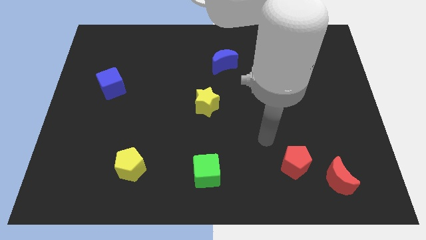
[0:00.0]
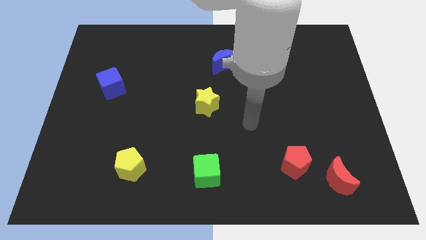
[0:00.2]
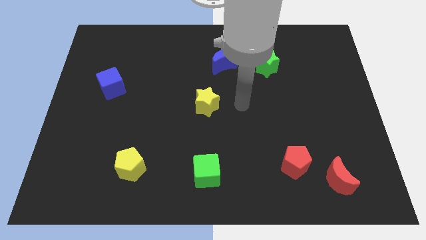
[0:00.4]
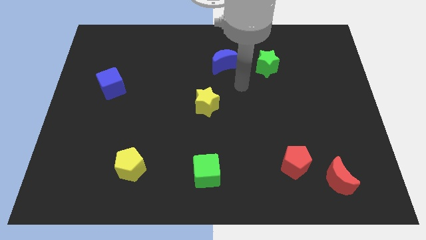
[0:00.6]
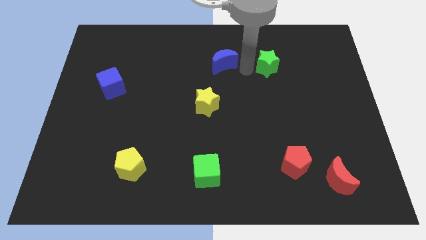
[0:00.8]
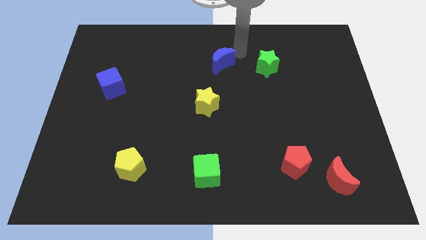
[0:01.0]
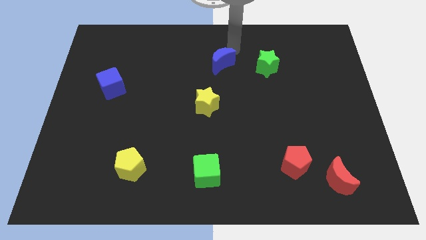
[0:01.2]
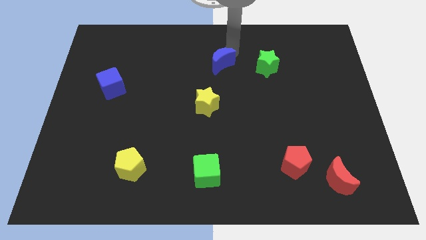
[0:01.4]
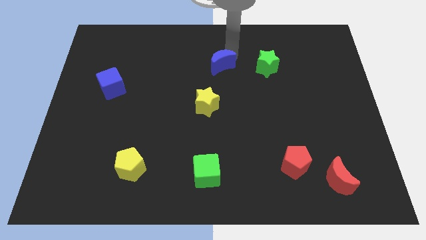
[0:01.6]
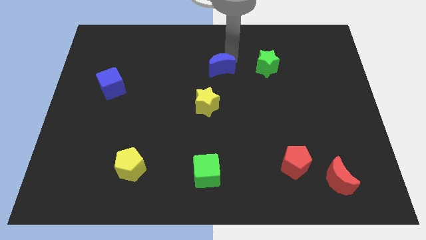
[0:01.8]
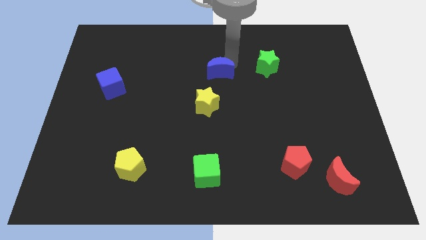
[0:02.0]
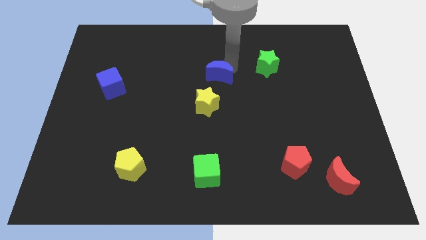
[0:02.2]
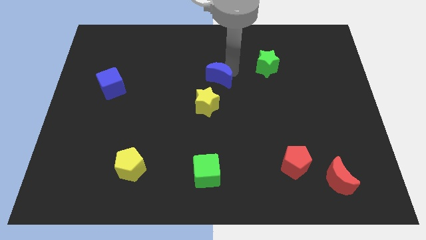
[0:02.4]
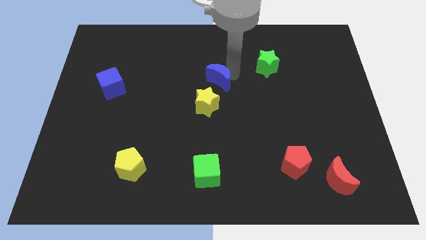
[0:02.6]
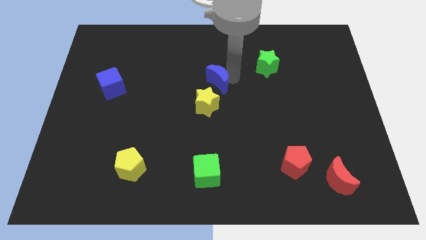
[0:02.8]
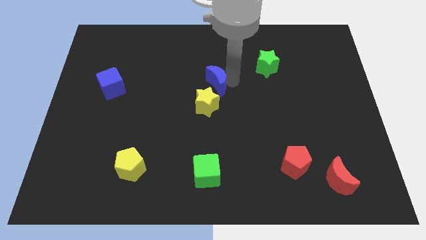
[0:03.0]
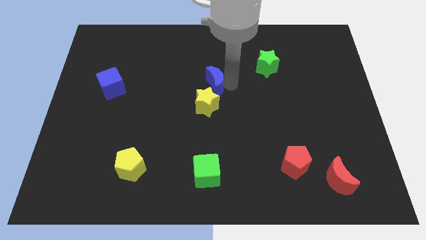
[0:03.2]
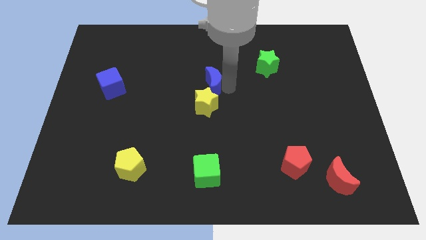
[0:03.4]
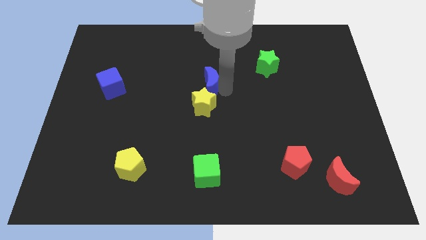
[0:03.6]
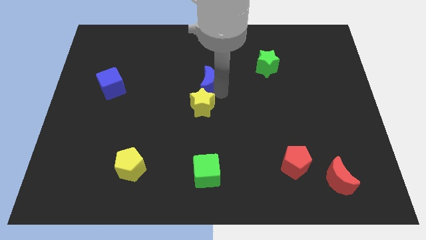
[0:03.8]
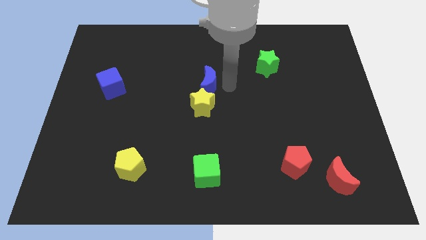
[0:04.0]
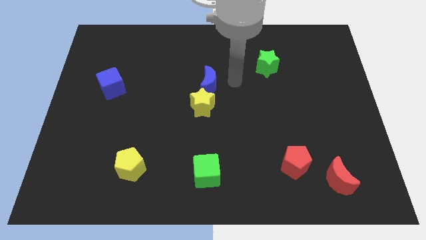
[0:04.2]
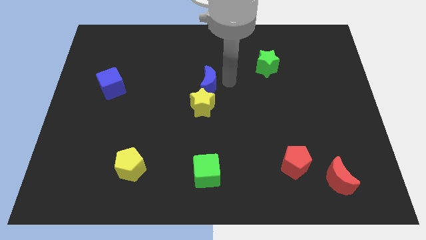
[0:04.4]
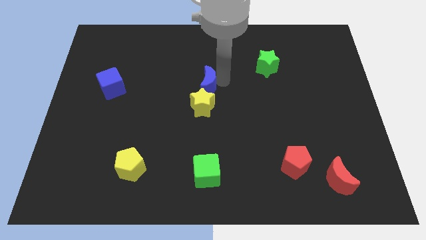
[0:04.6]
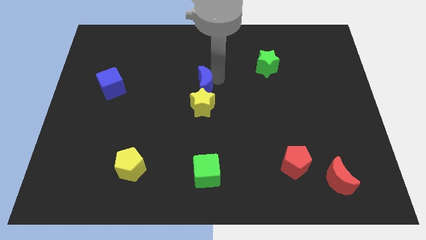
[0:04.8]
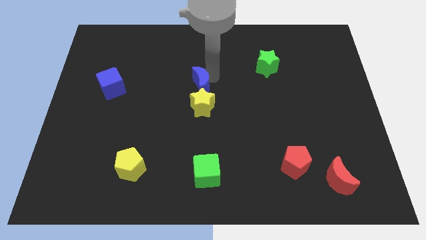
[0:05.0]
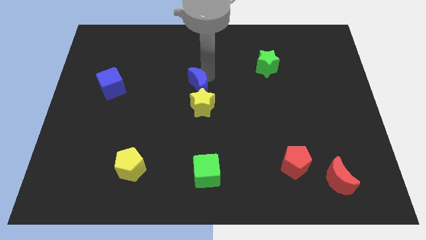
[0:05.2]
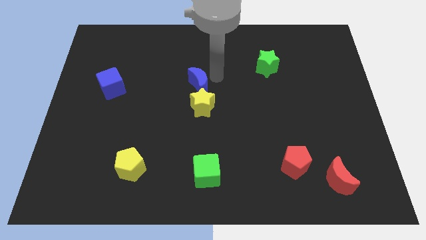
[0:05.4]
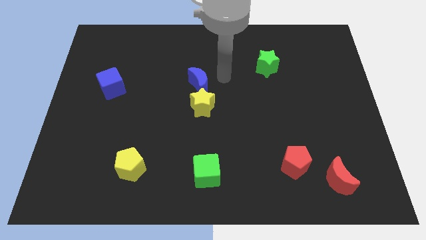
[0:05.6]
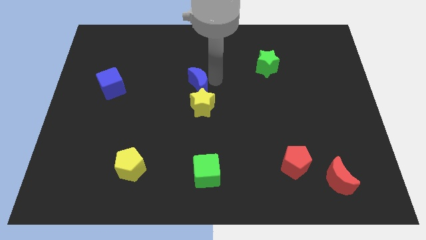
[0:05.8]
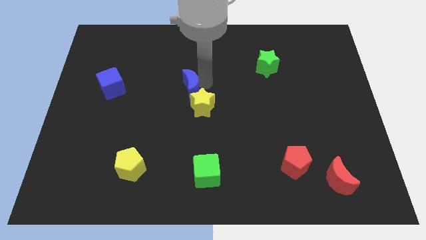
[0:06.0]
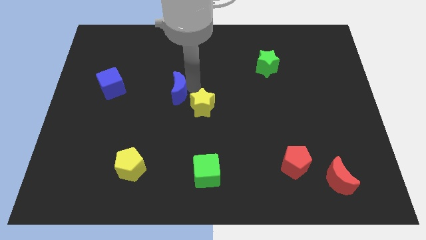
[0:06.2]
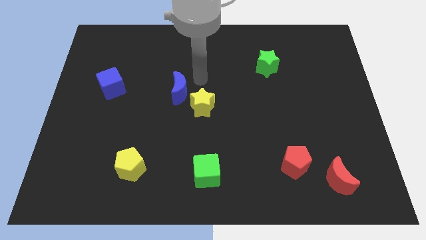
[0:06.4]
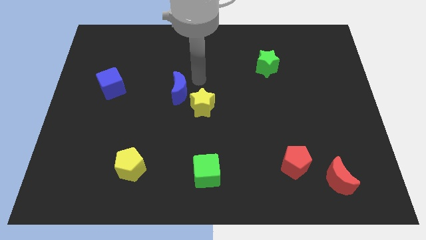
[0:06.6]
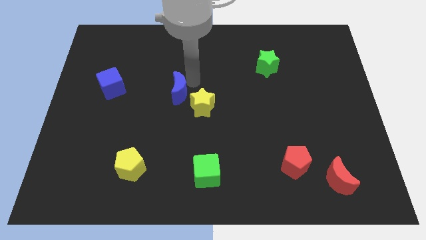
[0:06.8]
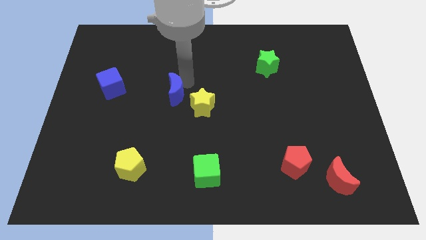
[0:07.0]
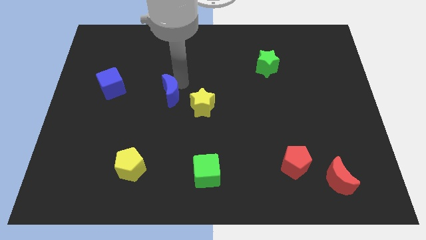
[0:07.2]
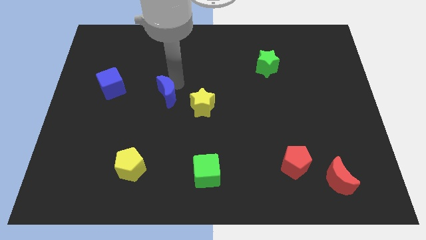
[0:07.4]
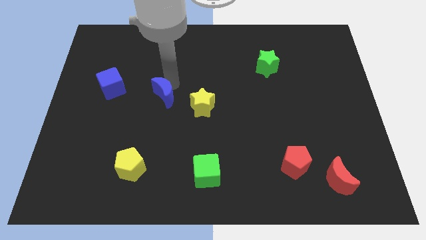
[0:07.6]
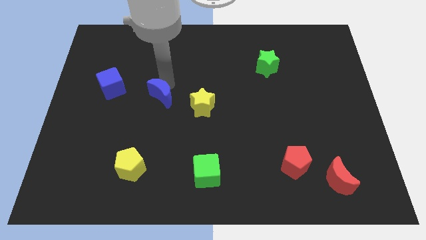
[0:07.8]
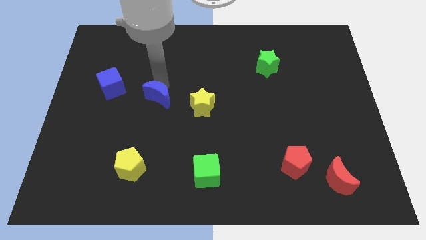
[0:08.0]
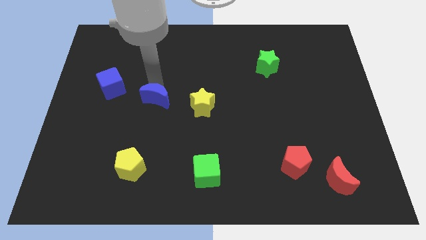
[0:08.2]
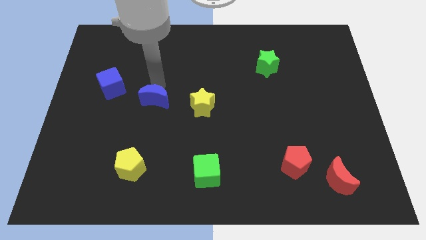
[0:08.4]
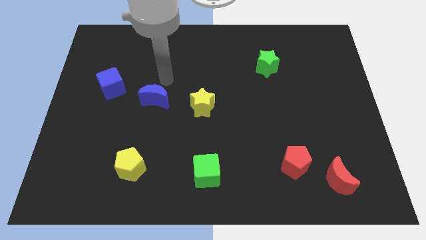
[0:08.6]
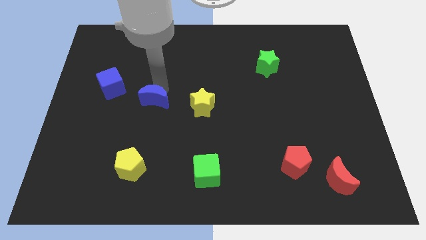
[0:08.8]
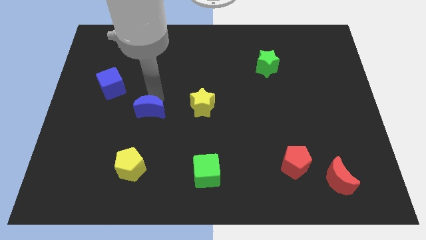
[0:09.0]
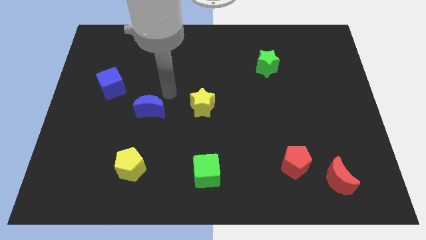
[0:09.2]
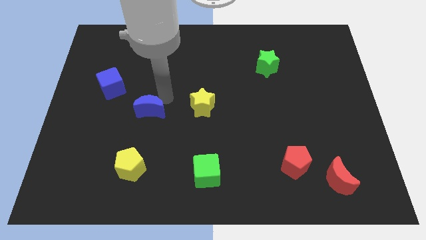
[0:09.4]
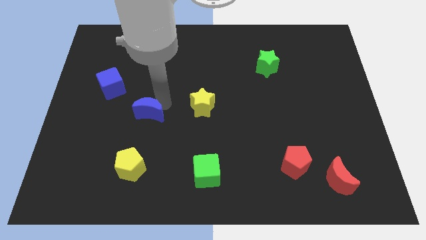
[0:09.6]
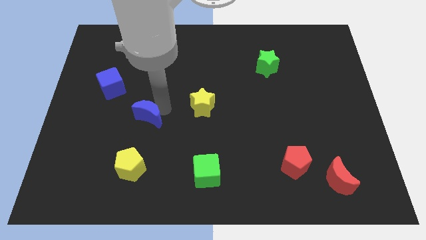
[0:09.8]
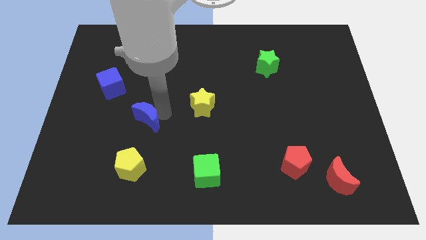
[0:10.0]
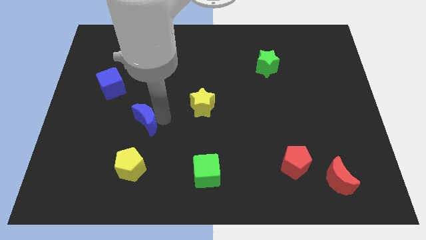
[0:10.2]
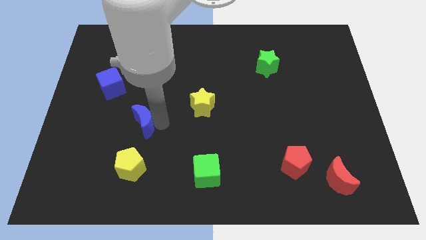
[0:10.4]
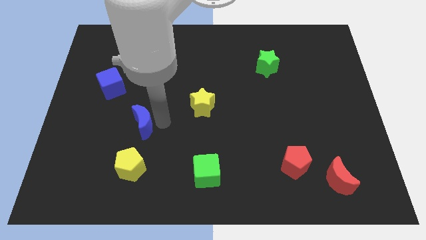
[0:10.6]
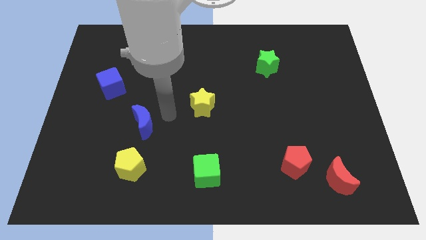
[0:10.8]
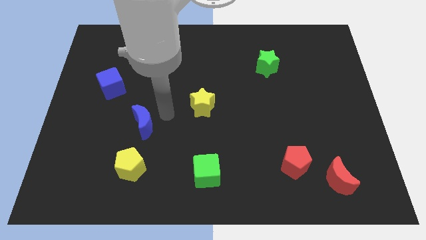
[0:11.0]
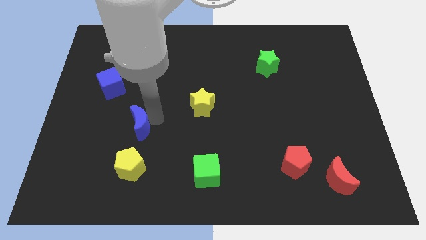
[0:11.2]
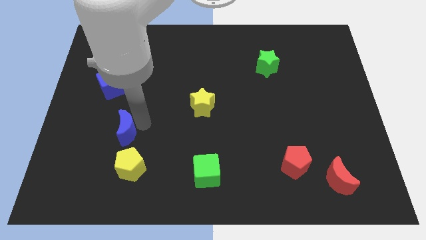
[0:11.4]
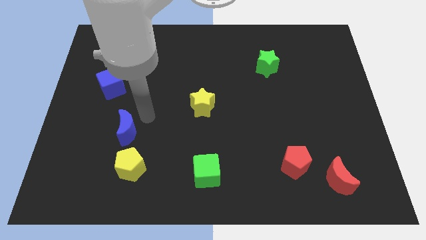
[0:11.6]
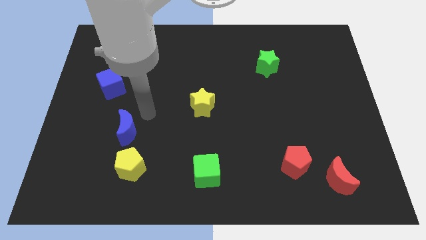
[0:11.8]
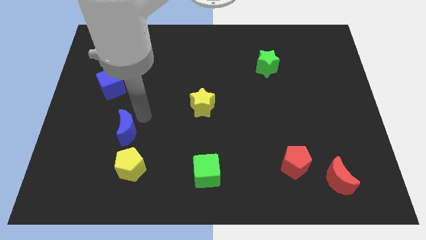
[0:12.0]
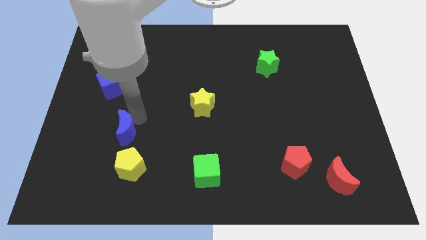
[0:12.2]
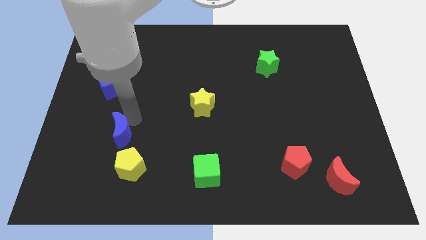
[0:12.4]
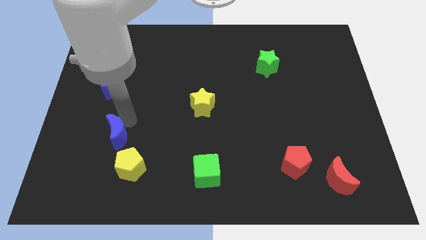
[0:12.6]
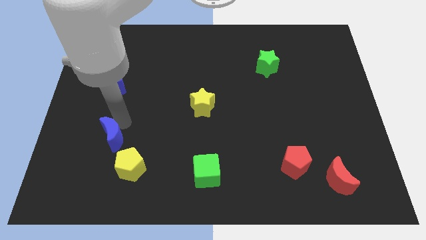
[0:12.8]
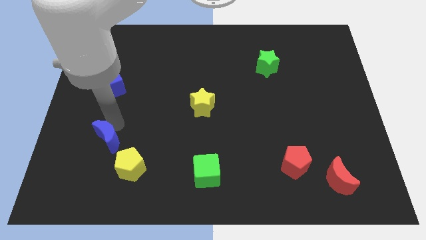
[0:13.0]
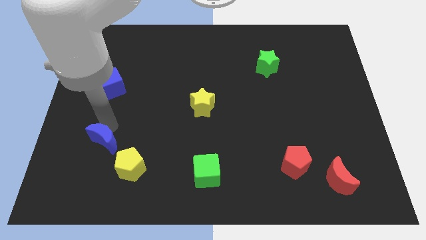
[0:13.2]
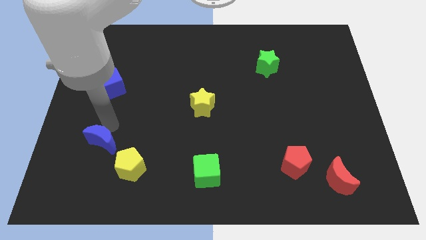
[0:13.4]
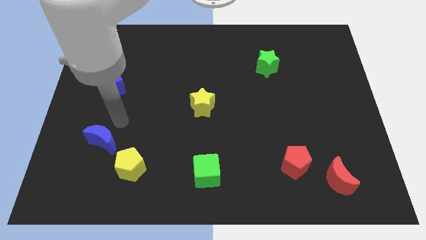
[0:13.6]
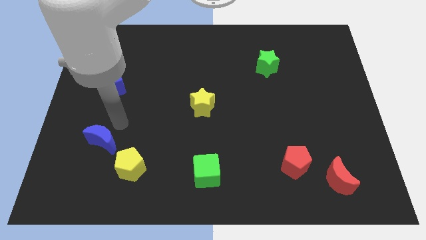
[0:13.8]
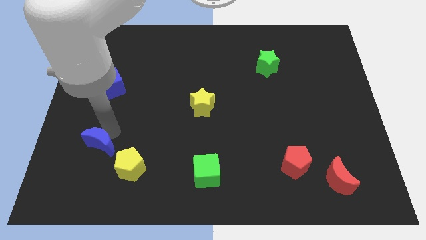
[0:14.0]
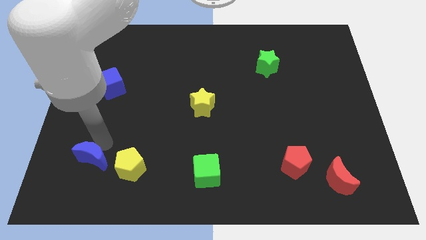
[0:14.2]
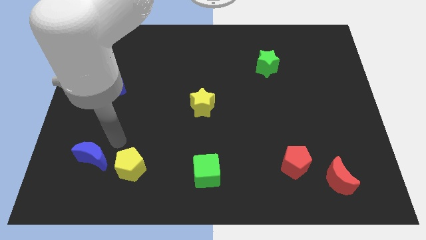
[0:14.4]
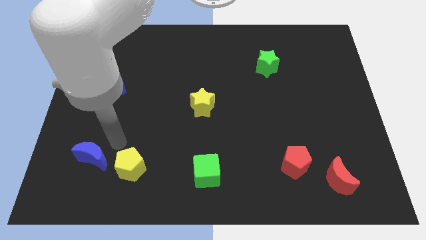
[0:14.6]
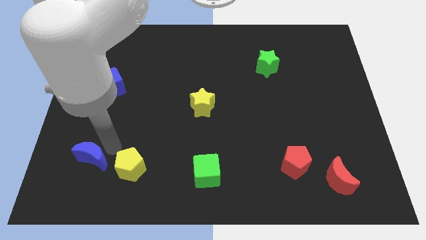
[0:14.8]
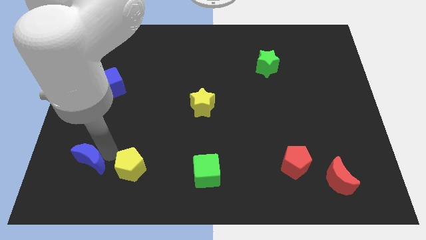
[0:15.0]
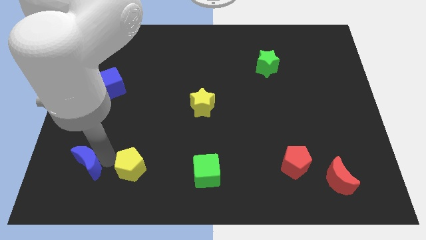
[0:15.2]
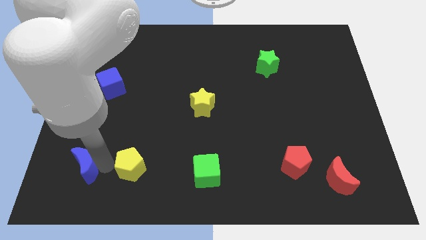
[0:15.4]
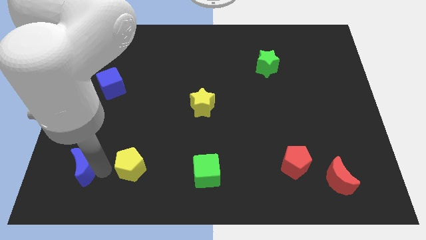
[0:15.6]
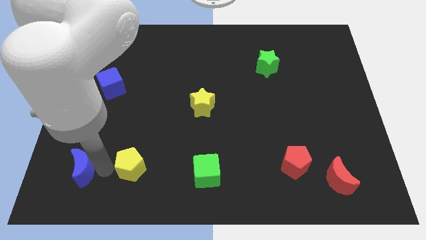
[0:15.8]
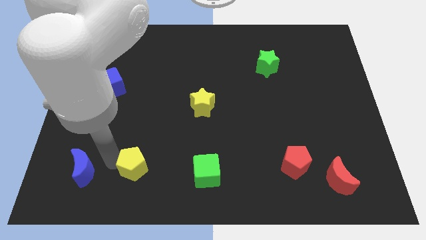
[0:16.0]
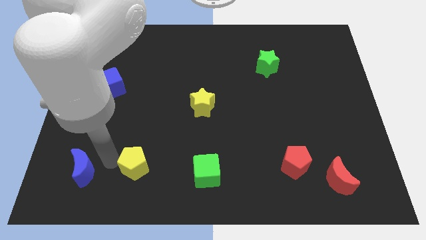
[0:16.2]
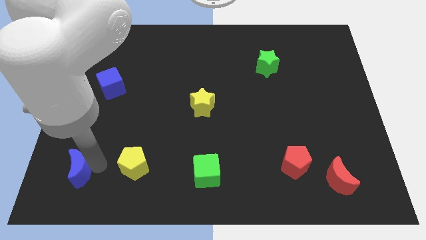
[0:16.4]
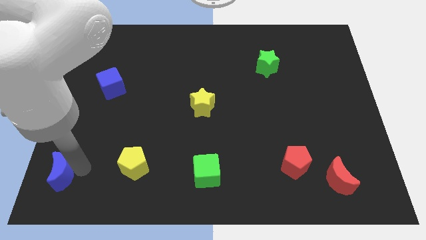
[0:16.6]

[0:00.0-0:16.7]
slide the blue moon to the lower left corner
